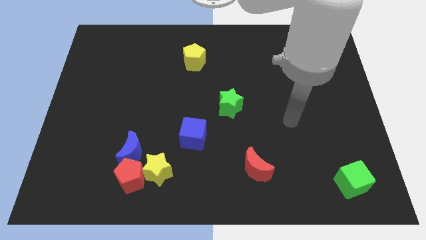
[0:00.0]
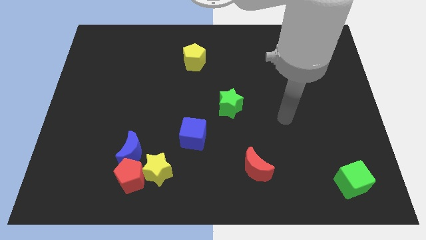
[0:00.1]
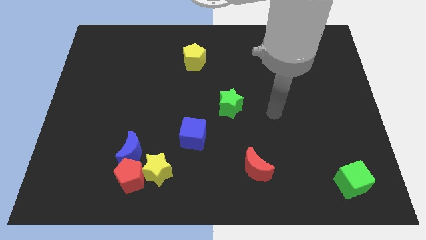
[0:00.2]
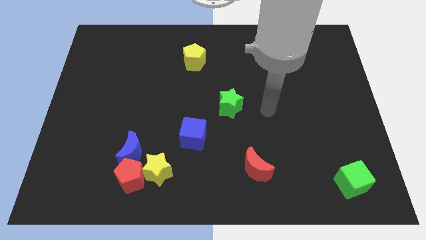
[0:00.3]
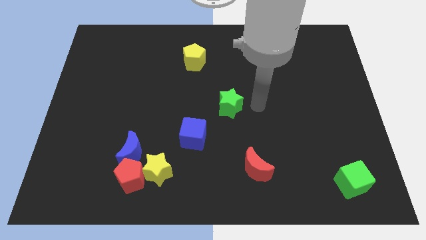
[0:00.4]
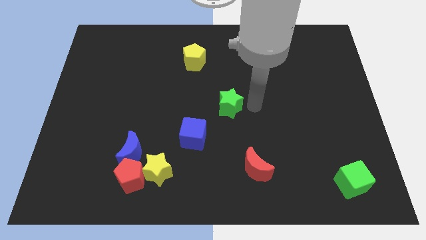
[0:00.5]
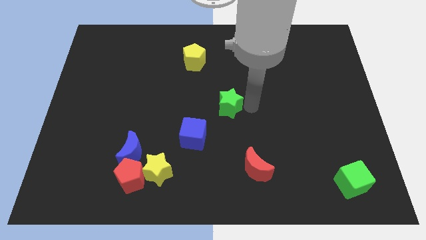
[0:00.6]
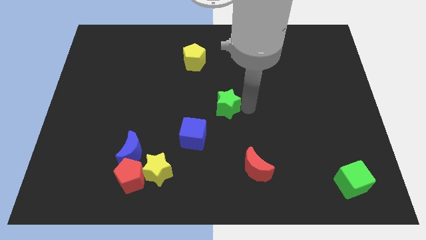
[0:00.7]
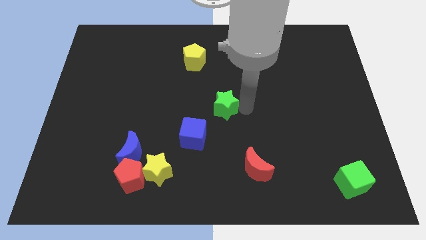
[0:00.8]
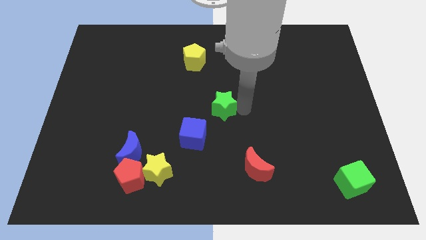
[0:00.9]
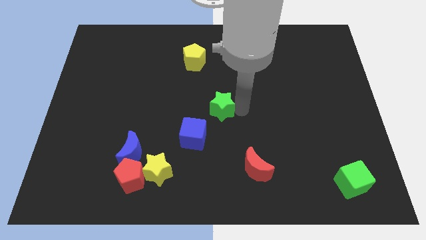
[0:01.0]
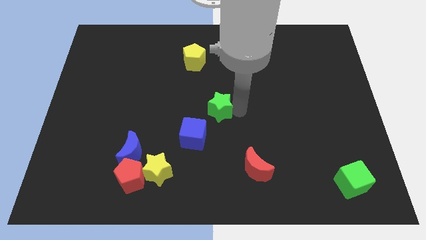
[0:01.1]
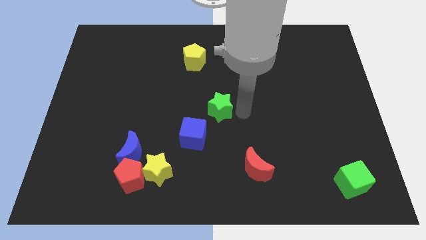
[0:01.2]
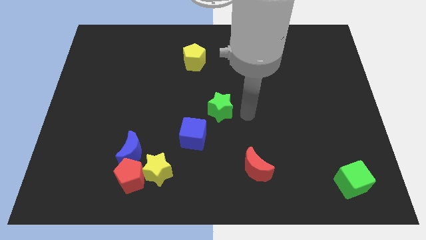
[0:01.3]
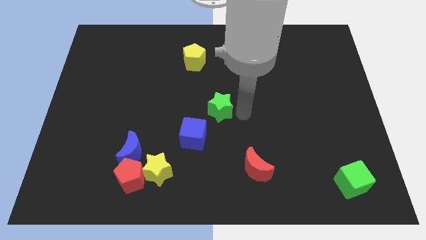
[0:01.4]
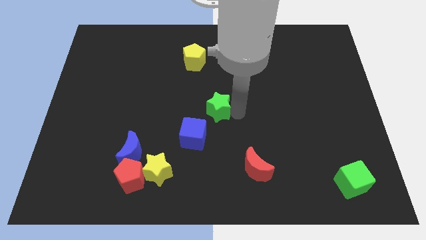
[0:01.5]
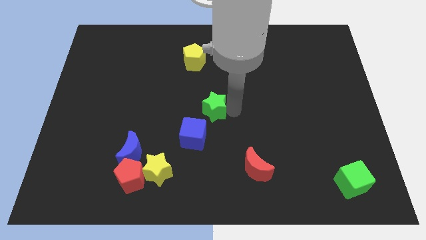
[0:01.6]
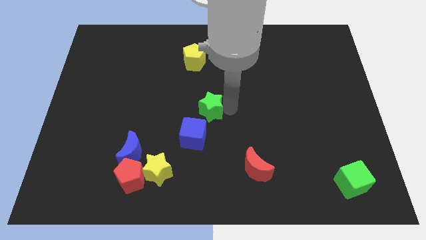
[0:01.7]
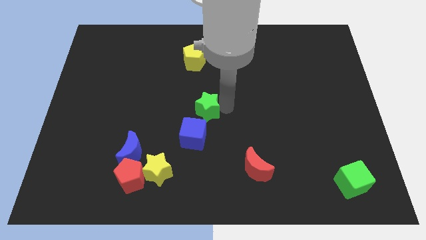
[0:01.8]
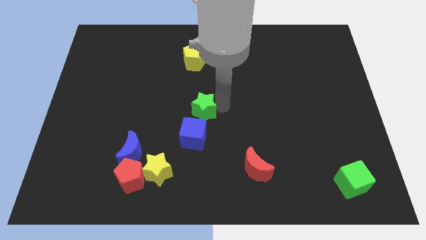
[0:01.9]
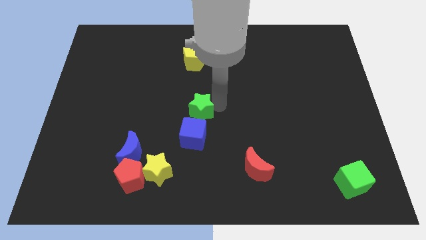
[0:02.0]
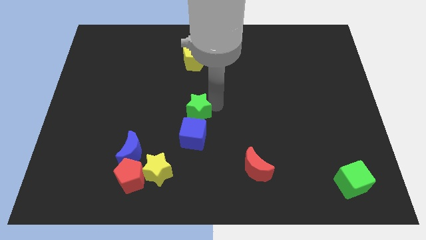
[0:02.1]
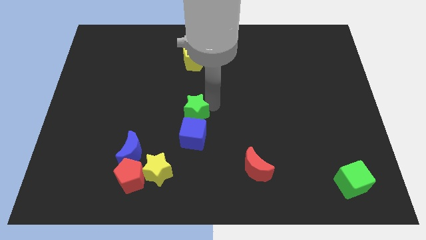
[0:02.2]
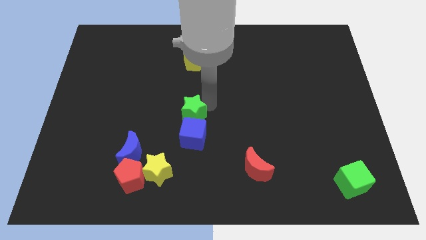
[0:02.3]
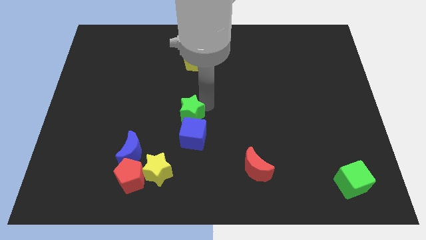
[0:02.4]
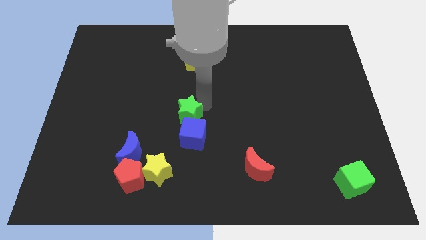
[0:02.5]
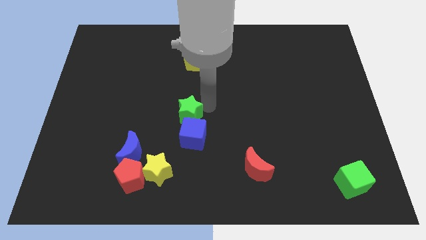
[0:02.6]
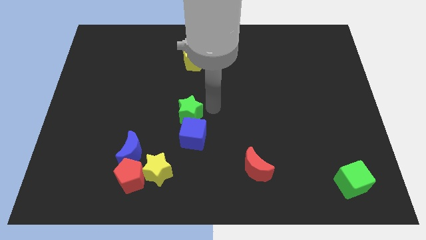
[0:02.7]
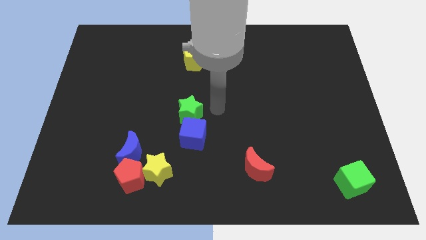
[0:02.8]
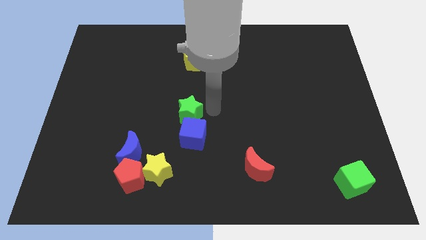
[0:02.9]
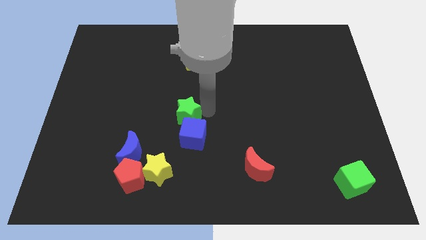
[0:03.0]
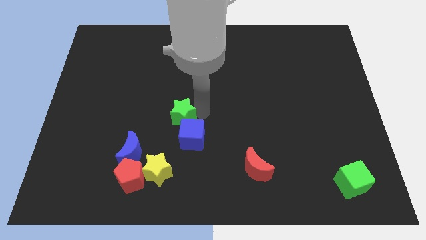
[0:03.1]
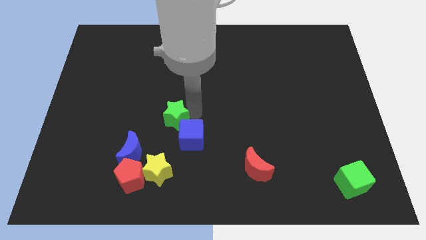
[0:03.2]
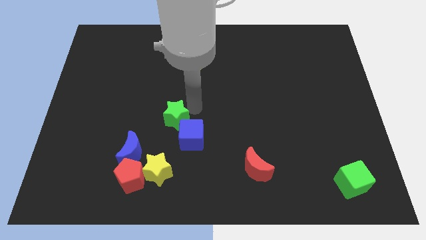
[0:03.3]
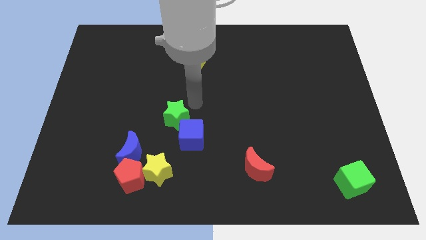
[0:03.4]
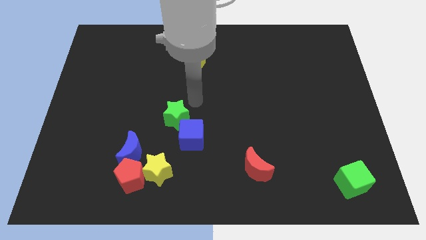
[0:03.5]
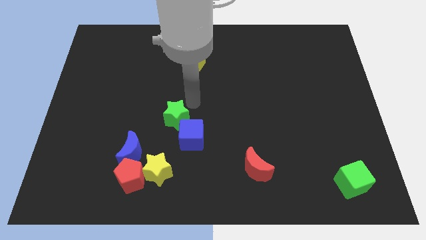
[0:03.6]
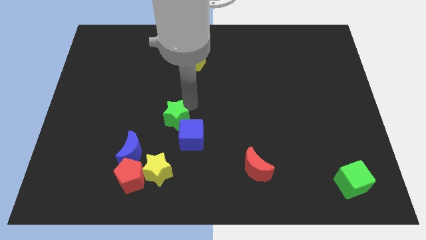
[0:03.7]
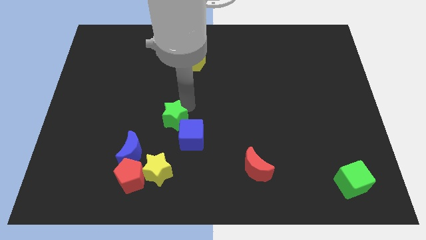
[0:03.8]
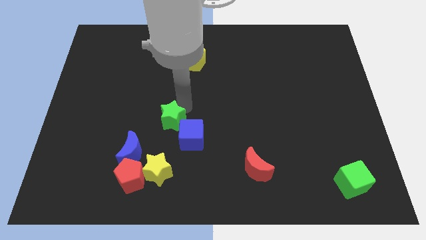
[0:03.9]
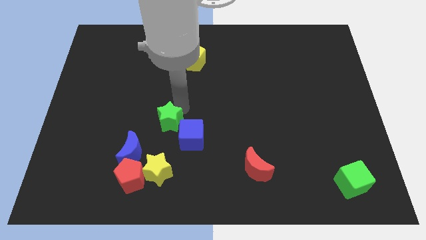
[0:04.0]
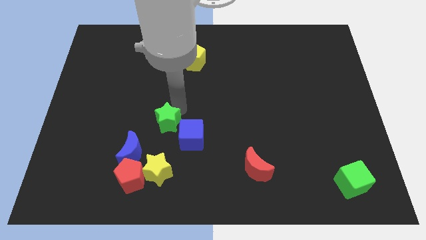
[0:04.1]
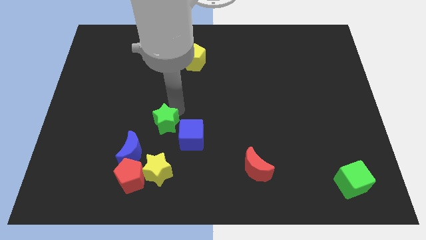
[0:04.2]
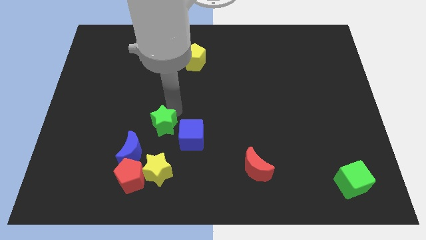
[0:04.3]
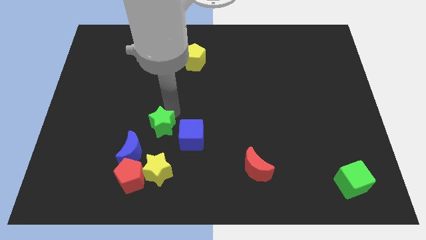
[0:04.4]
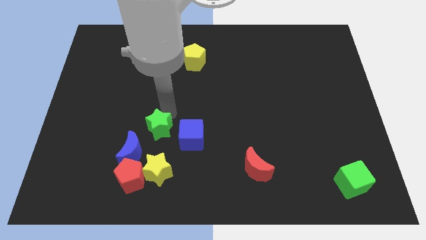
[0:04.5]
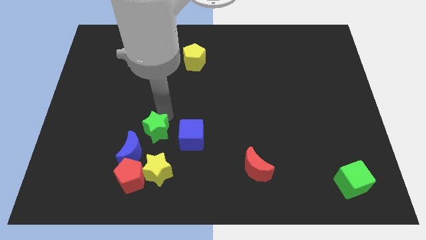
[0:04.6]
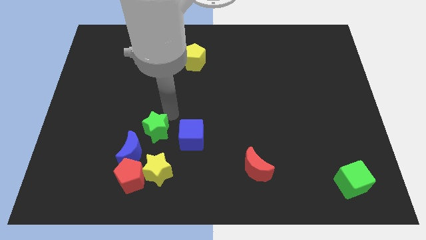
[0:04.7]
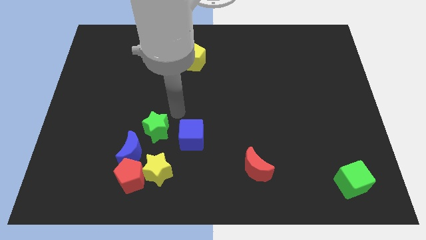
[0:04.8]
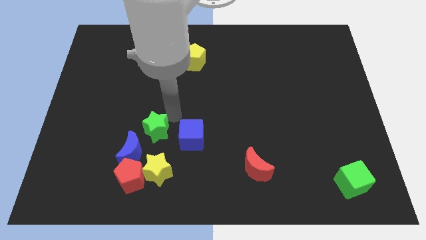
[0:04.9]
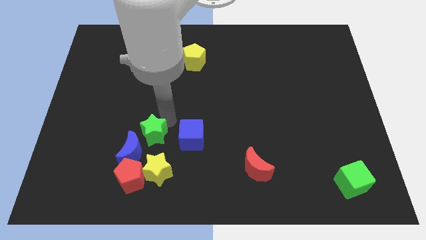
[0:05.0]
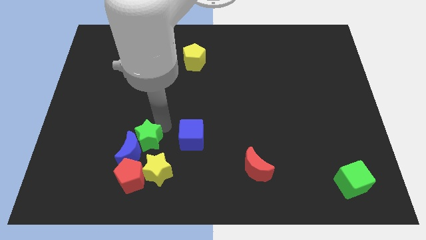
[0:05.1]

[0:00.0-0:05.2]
slide the green star towards the blue moon

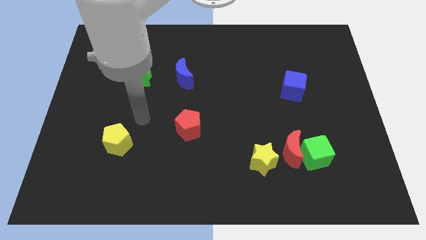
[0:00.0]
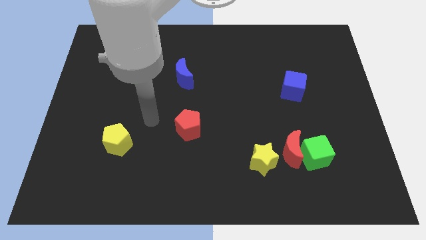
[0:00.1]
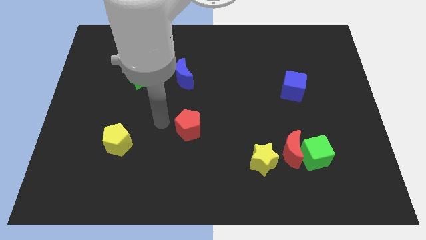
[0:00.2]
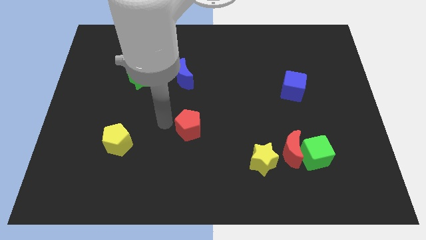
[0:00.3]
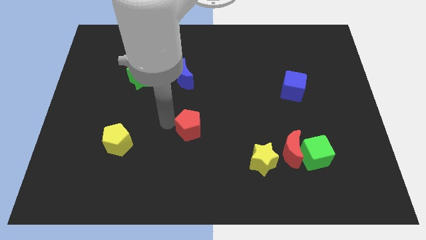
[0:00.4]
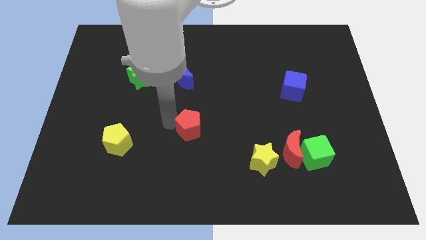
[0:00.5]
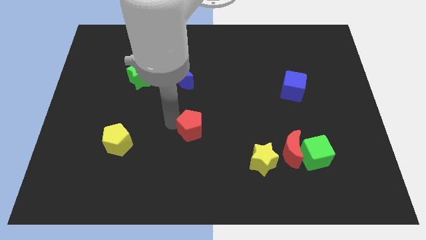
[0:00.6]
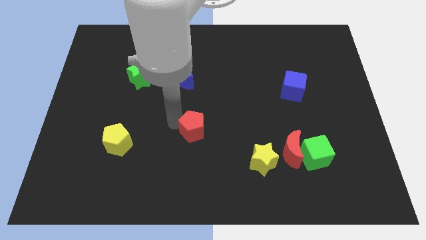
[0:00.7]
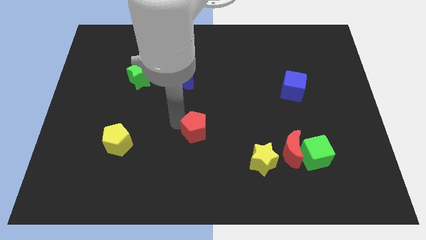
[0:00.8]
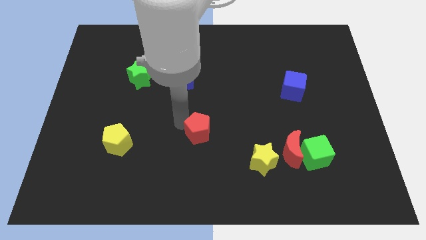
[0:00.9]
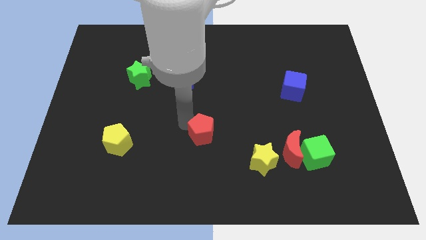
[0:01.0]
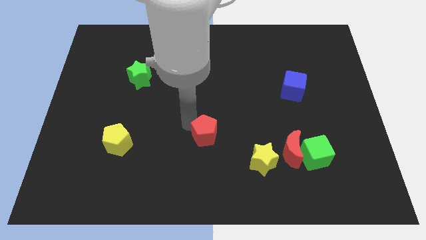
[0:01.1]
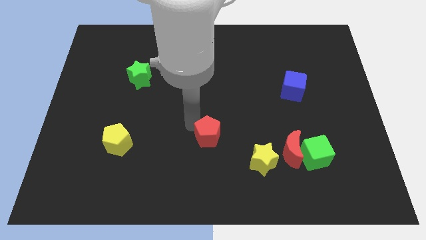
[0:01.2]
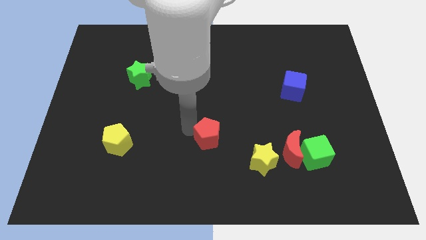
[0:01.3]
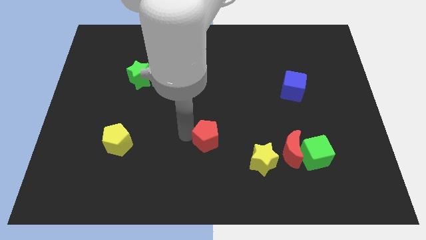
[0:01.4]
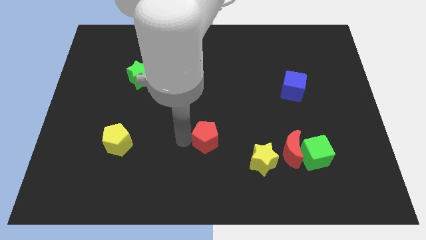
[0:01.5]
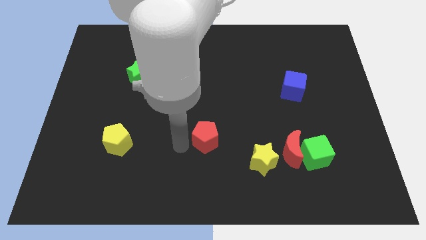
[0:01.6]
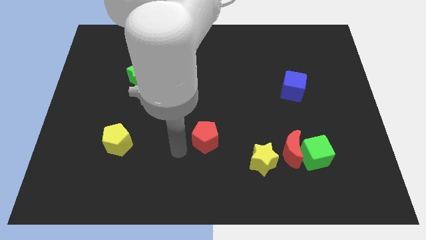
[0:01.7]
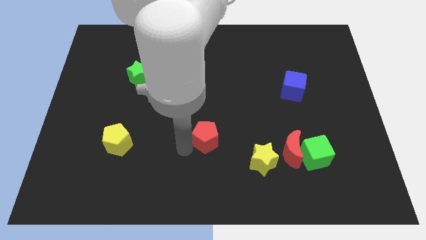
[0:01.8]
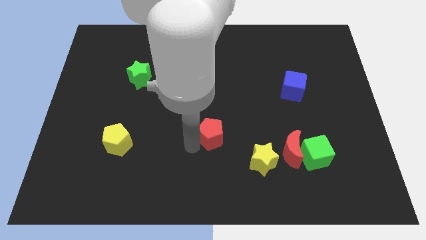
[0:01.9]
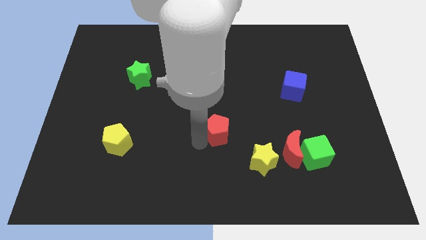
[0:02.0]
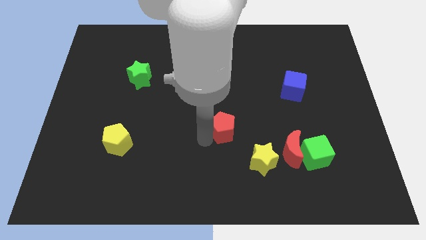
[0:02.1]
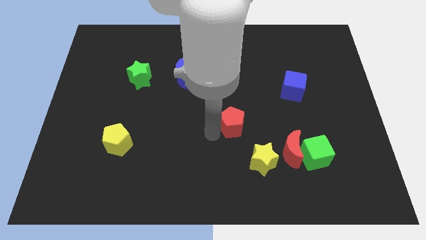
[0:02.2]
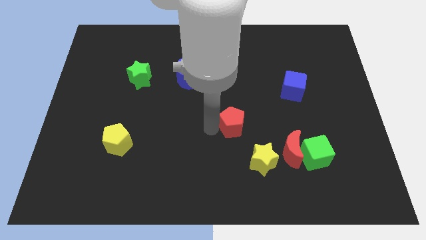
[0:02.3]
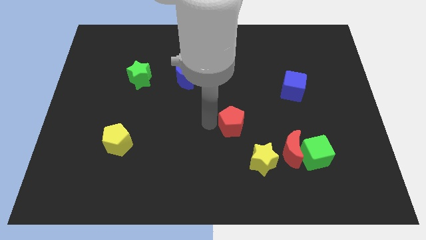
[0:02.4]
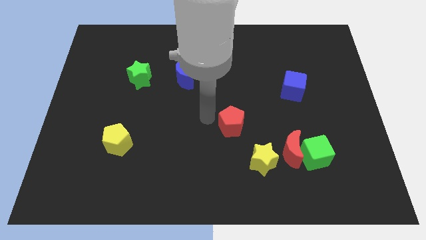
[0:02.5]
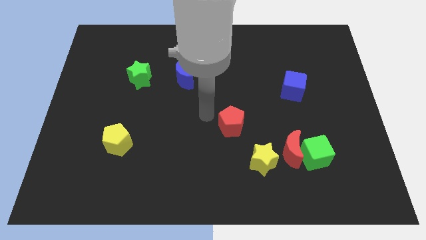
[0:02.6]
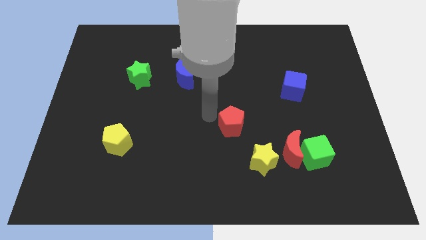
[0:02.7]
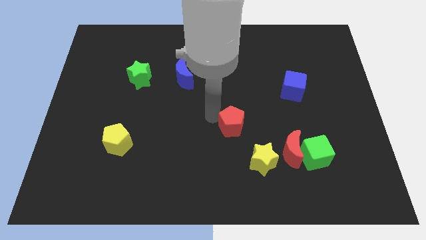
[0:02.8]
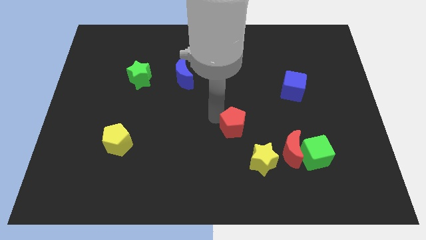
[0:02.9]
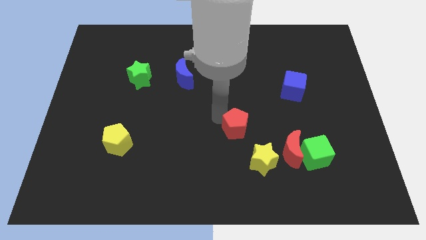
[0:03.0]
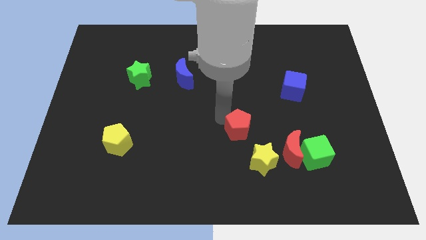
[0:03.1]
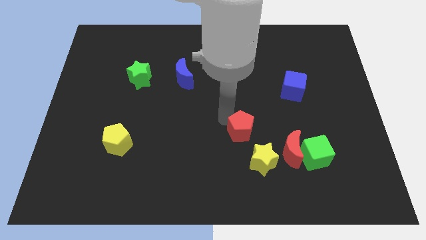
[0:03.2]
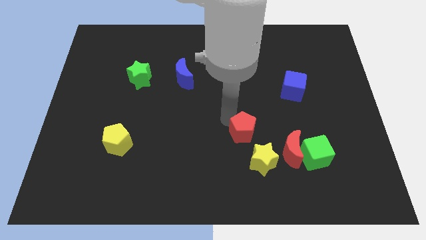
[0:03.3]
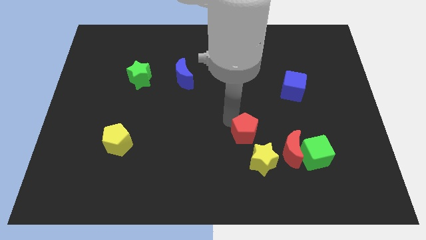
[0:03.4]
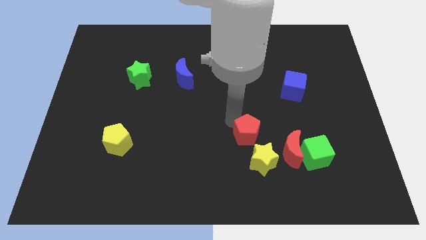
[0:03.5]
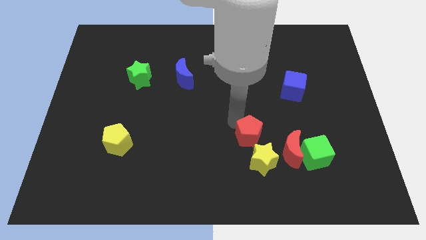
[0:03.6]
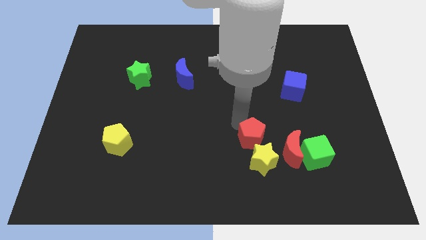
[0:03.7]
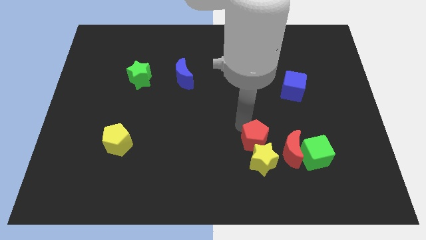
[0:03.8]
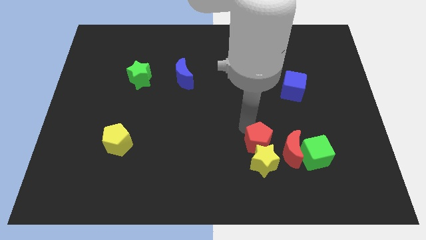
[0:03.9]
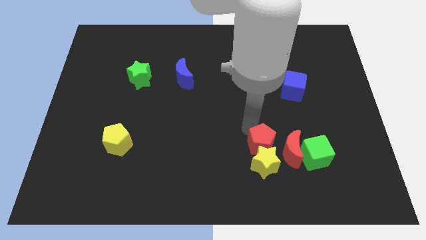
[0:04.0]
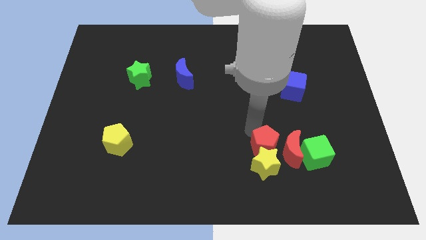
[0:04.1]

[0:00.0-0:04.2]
move the red pentagon next to the red moon
